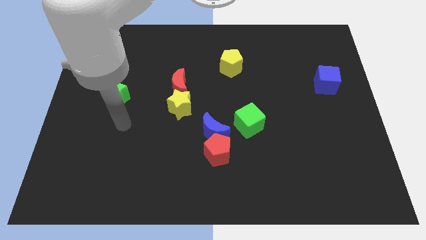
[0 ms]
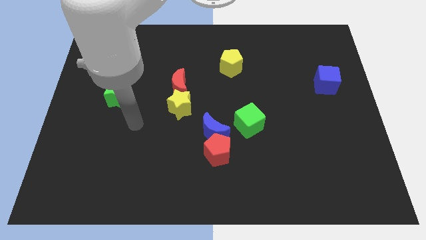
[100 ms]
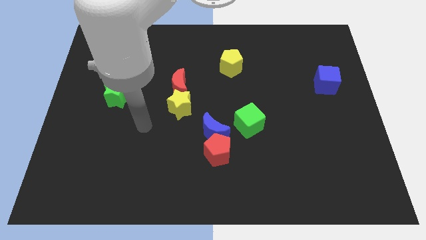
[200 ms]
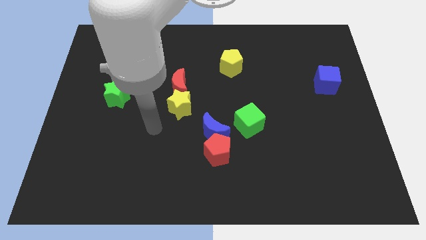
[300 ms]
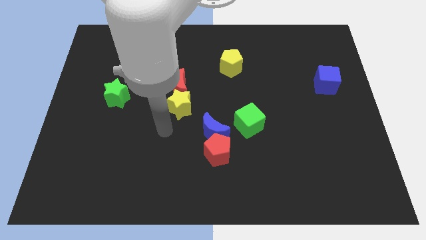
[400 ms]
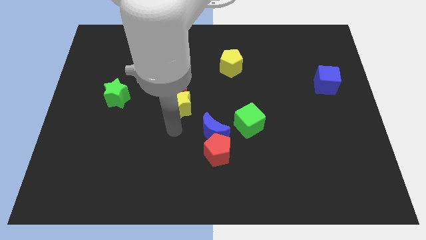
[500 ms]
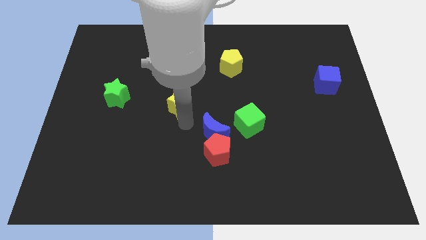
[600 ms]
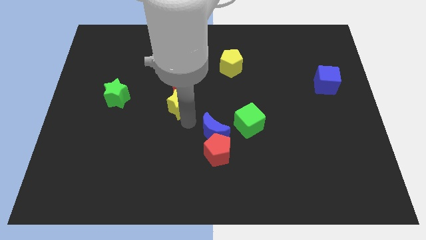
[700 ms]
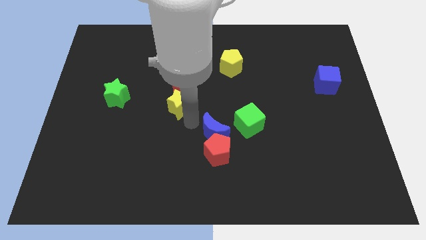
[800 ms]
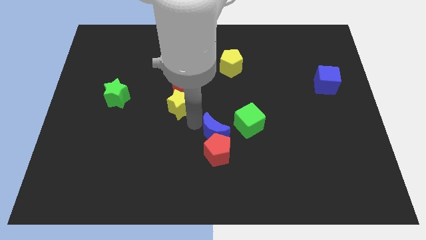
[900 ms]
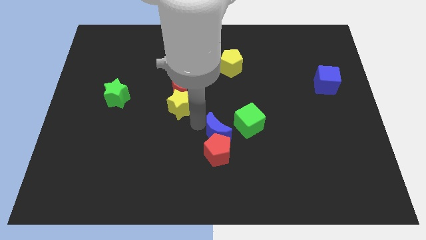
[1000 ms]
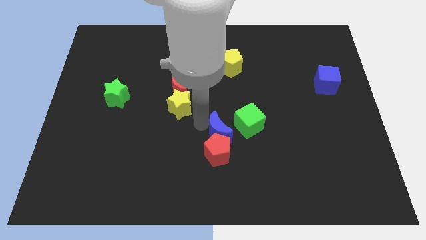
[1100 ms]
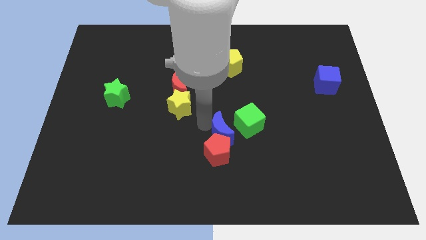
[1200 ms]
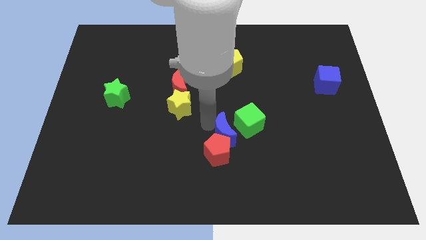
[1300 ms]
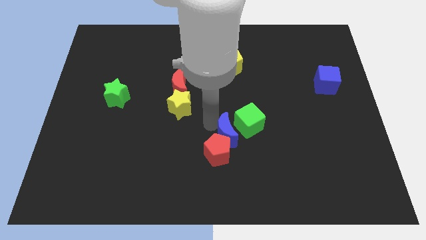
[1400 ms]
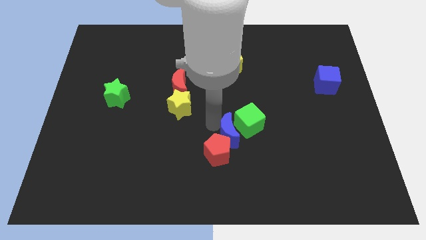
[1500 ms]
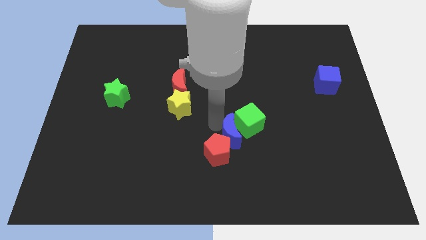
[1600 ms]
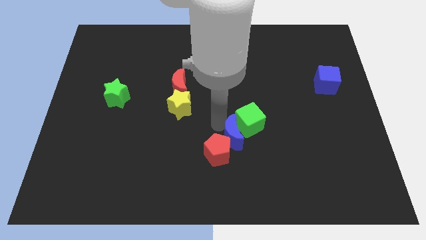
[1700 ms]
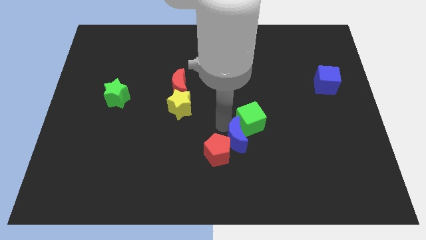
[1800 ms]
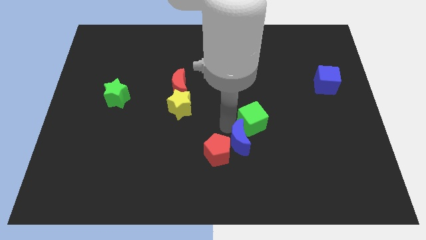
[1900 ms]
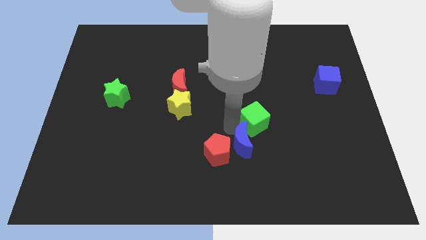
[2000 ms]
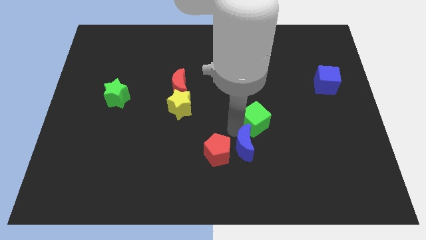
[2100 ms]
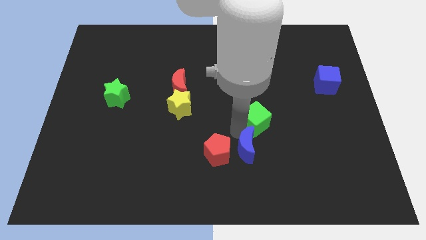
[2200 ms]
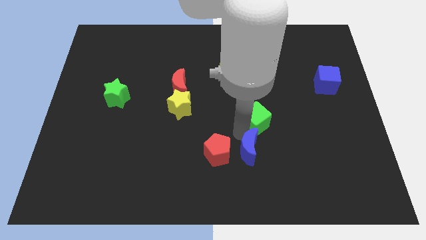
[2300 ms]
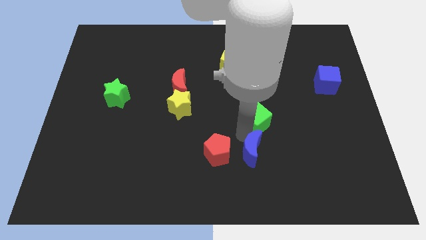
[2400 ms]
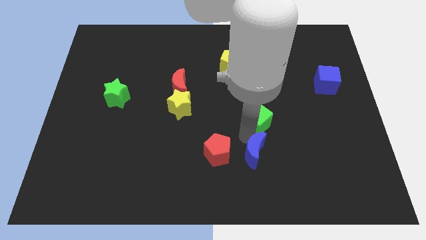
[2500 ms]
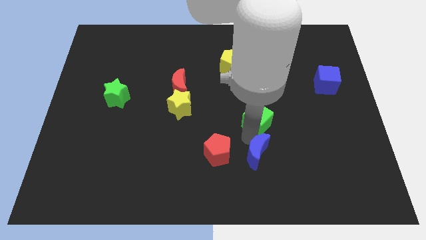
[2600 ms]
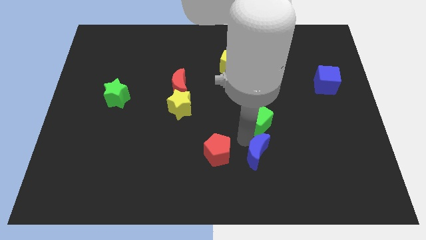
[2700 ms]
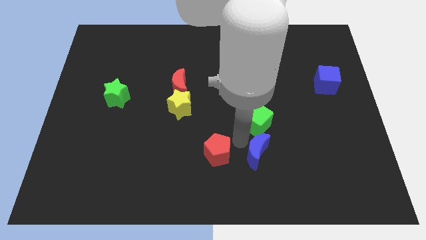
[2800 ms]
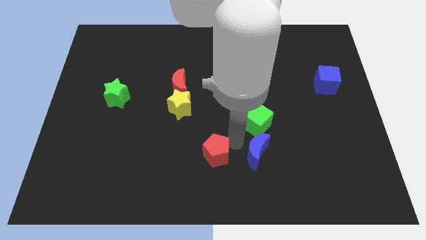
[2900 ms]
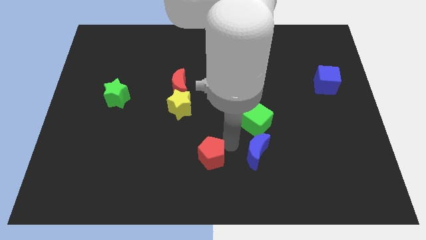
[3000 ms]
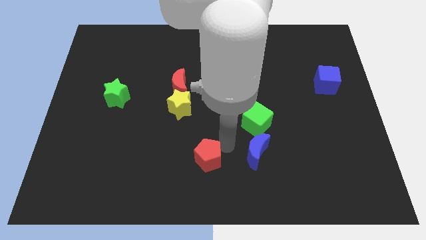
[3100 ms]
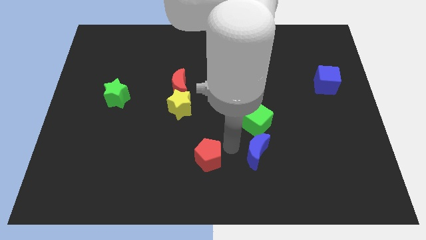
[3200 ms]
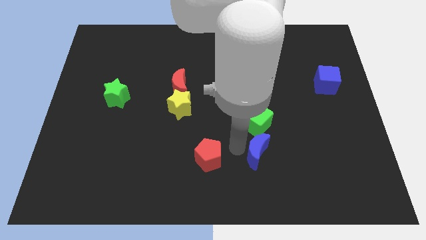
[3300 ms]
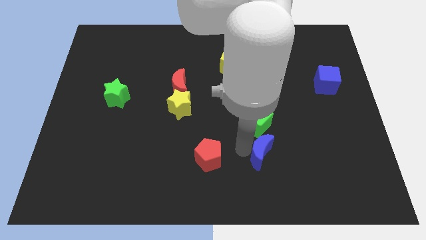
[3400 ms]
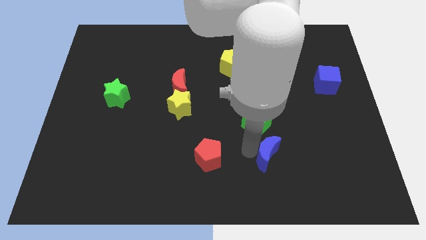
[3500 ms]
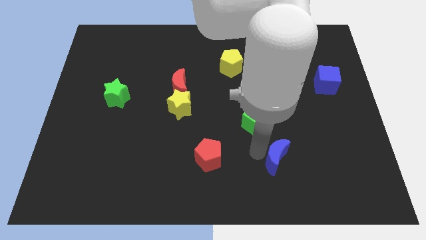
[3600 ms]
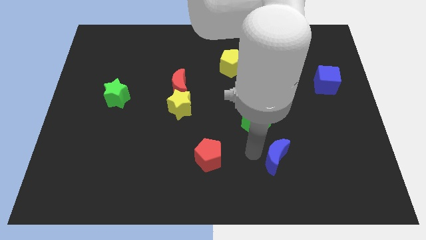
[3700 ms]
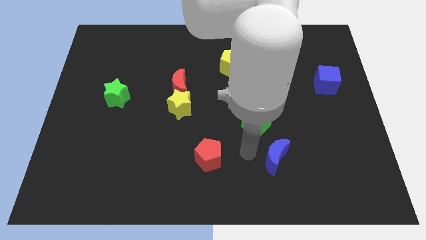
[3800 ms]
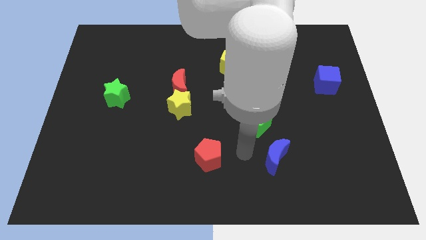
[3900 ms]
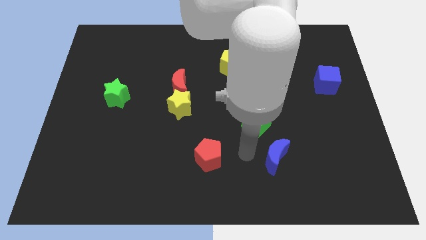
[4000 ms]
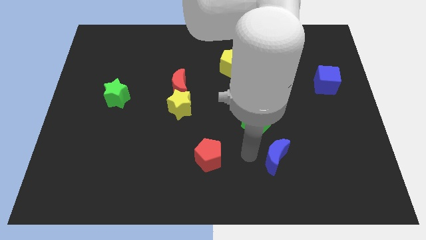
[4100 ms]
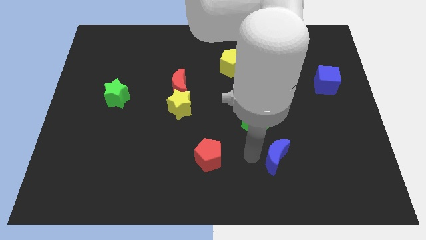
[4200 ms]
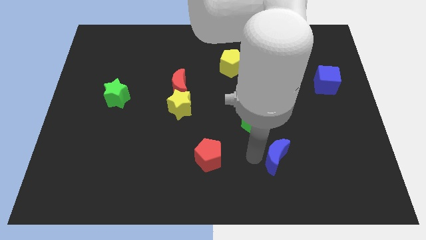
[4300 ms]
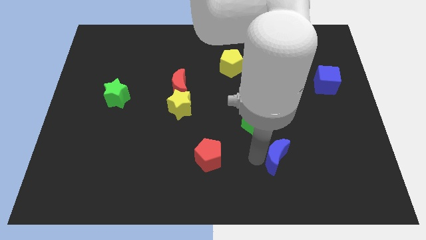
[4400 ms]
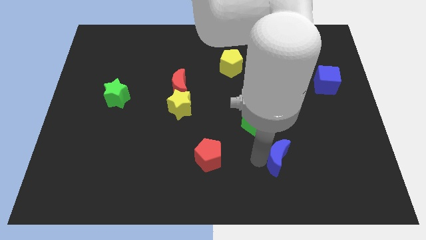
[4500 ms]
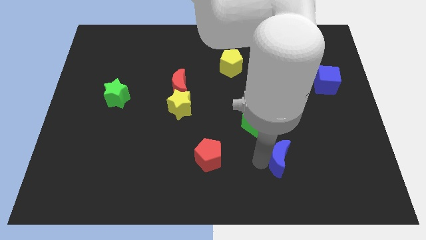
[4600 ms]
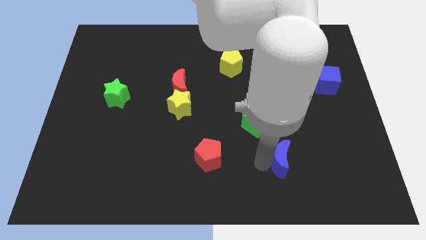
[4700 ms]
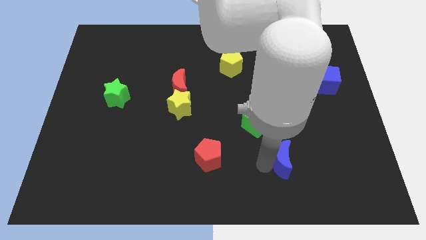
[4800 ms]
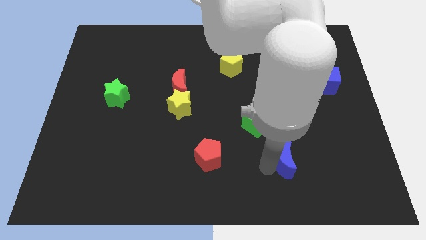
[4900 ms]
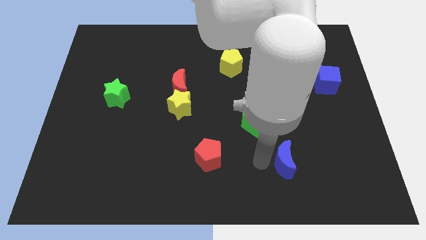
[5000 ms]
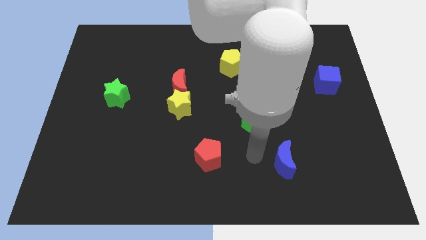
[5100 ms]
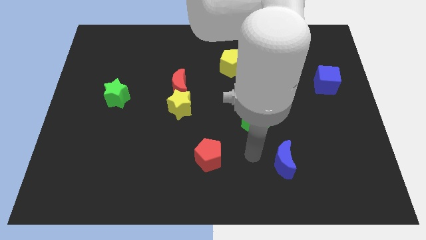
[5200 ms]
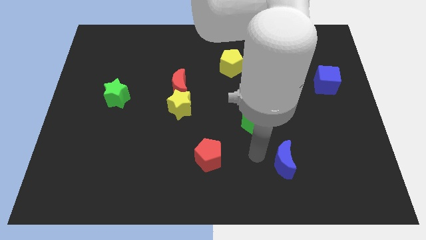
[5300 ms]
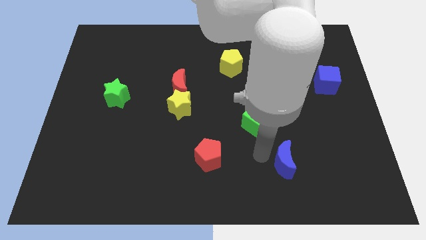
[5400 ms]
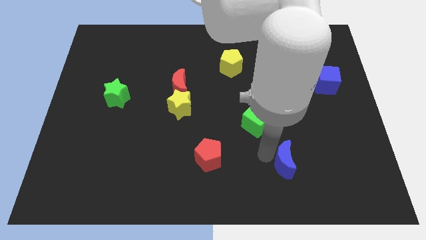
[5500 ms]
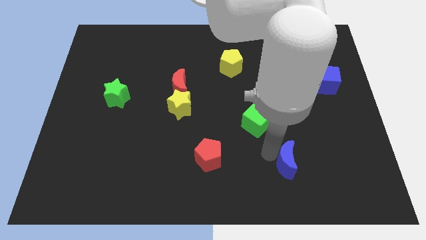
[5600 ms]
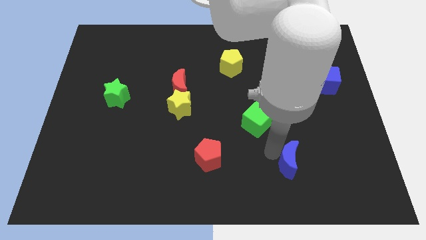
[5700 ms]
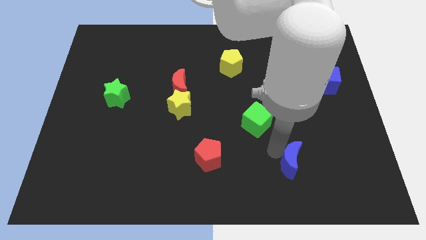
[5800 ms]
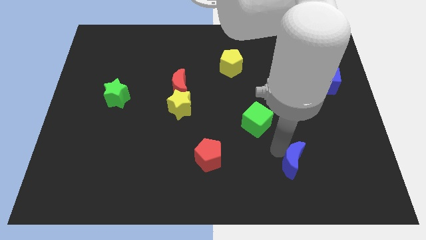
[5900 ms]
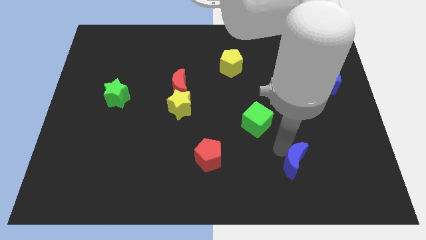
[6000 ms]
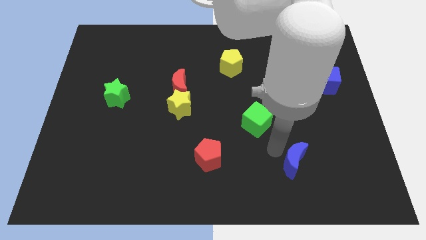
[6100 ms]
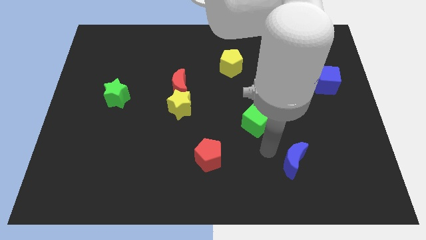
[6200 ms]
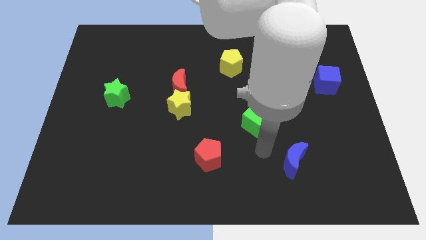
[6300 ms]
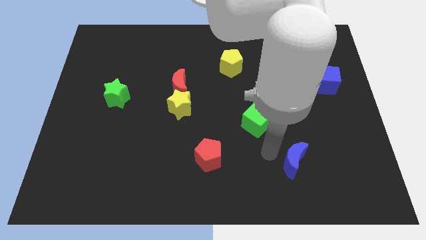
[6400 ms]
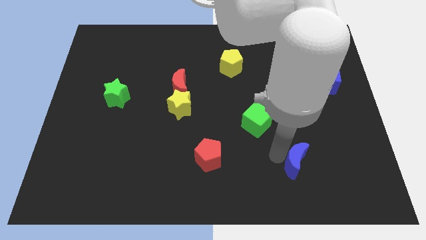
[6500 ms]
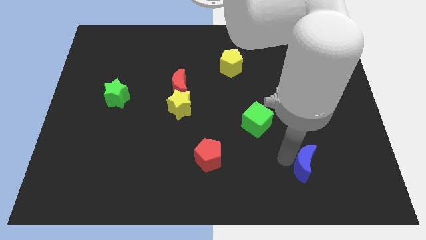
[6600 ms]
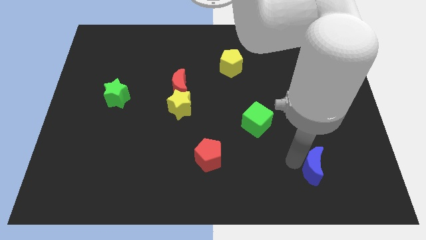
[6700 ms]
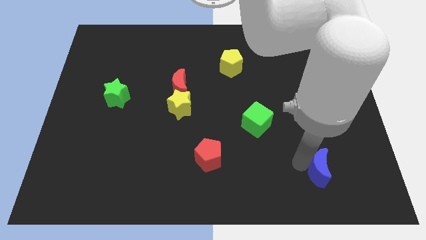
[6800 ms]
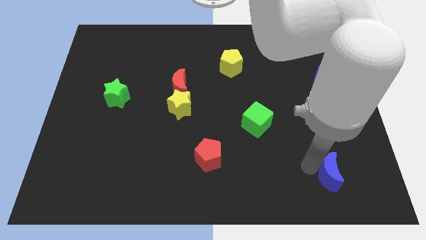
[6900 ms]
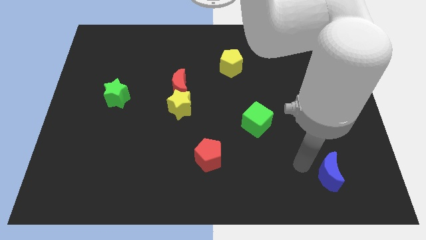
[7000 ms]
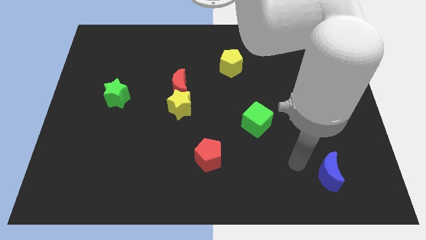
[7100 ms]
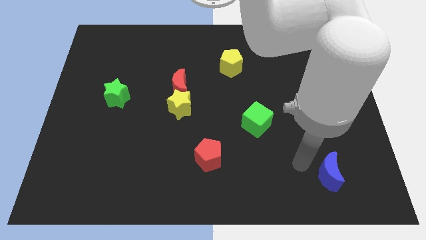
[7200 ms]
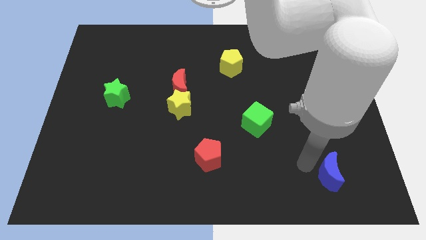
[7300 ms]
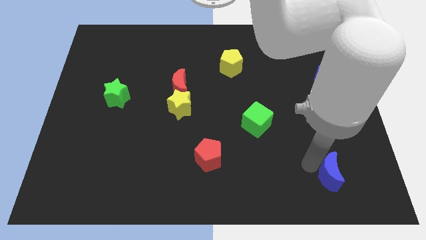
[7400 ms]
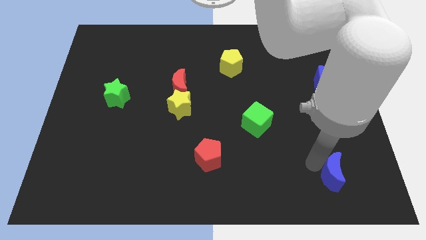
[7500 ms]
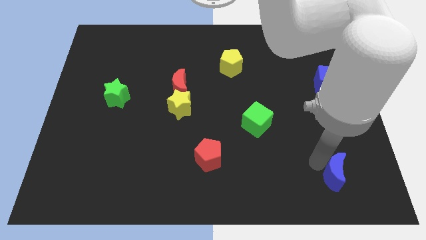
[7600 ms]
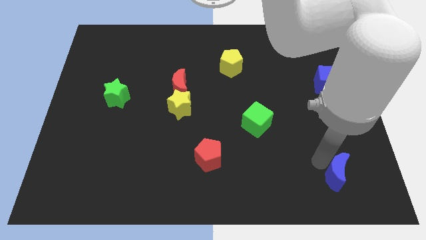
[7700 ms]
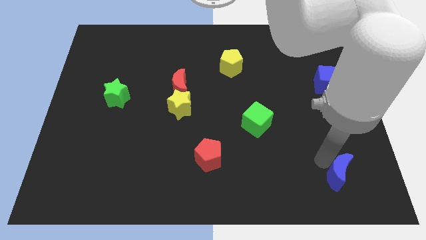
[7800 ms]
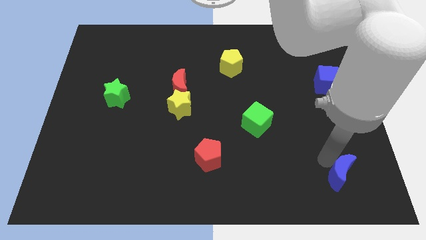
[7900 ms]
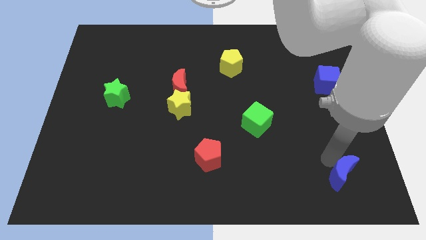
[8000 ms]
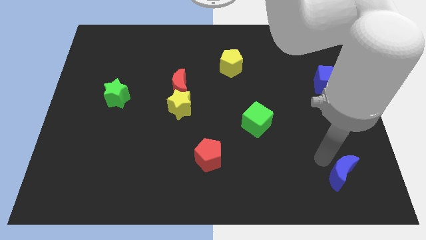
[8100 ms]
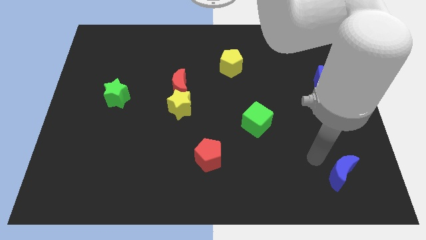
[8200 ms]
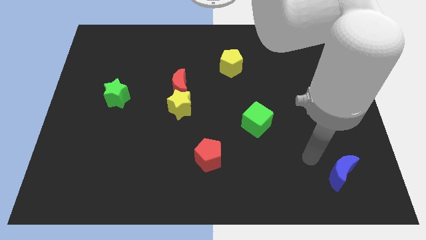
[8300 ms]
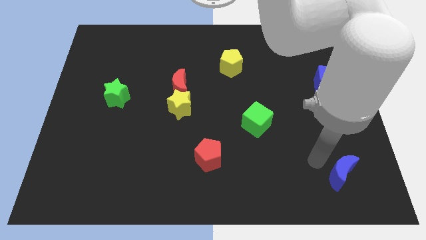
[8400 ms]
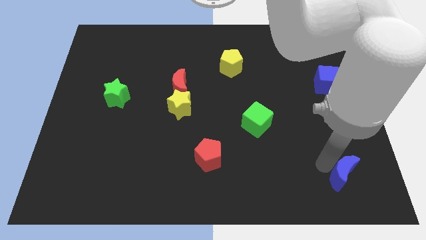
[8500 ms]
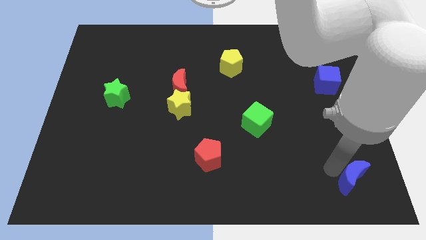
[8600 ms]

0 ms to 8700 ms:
move the blue moon to the bottom right
